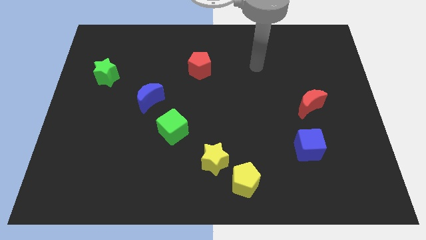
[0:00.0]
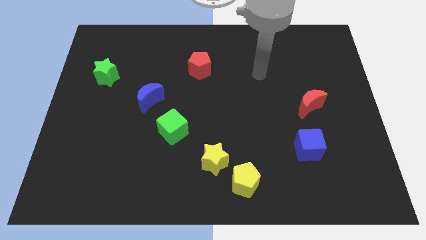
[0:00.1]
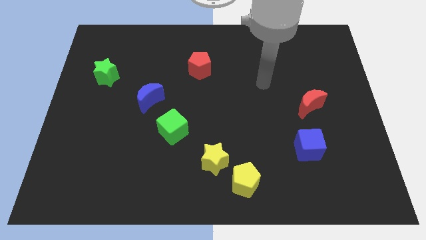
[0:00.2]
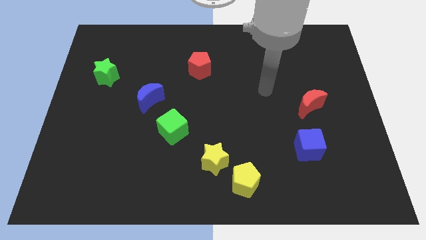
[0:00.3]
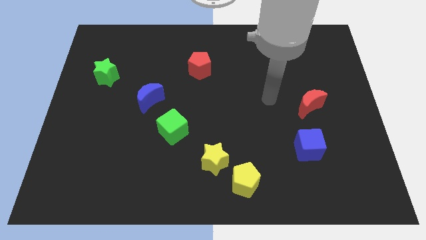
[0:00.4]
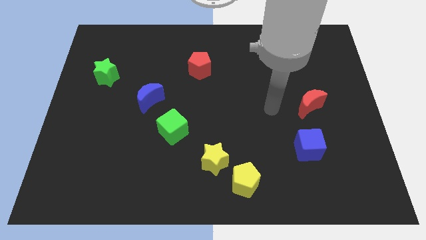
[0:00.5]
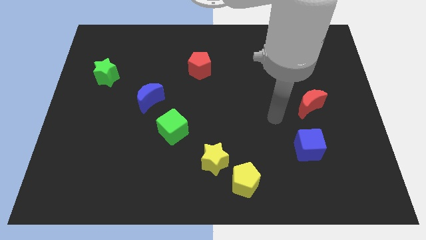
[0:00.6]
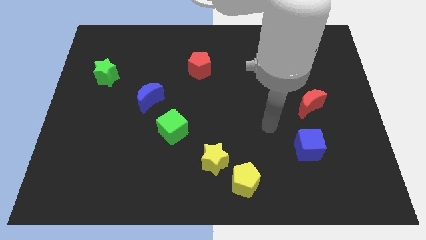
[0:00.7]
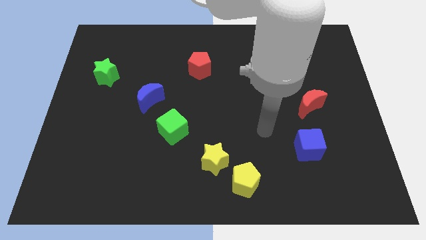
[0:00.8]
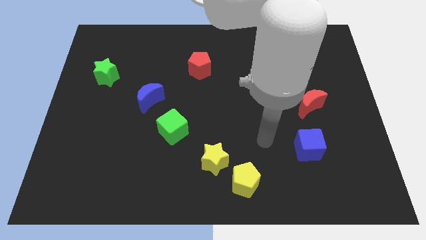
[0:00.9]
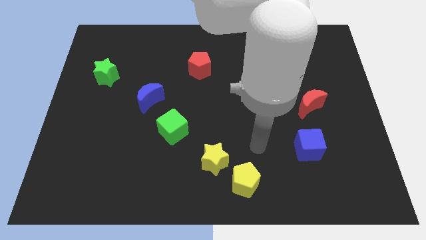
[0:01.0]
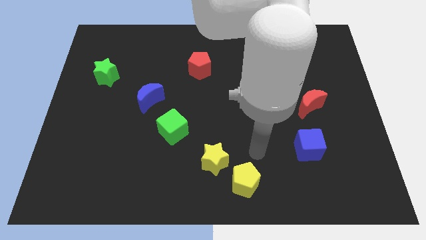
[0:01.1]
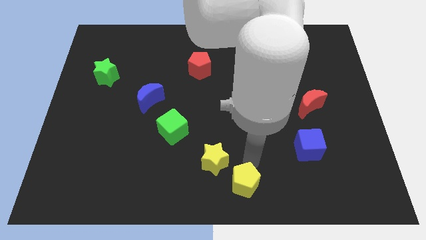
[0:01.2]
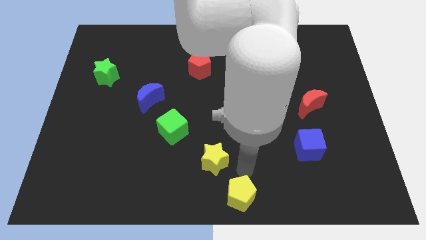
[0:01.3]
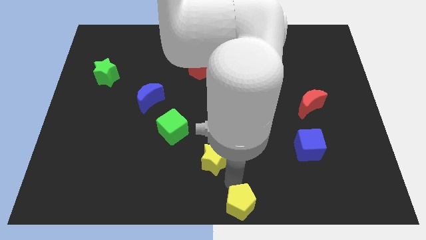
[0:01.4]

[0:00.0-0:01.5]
move the yellow star away from the yellow pentagon

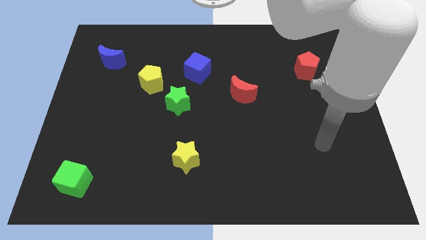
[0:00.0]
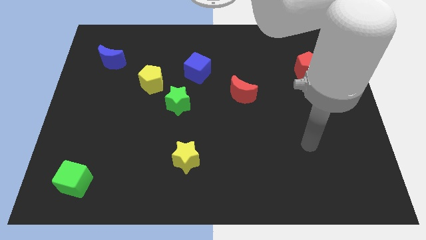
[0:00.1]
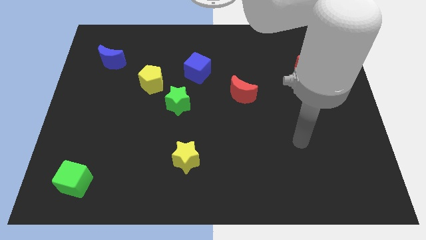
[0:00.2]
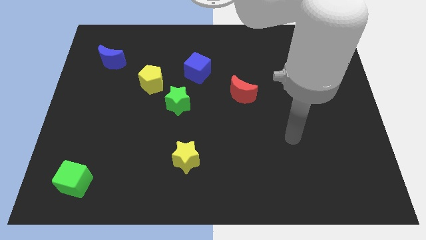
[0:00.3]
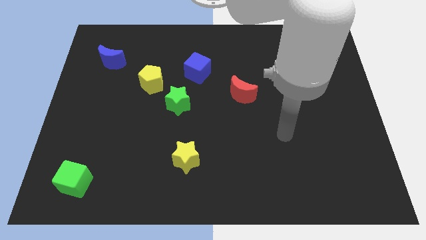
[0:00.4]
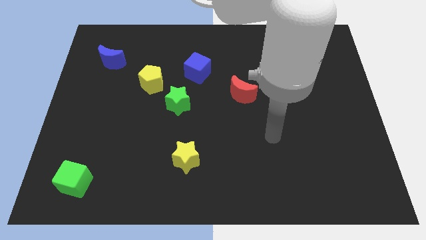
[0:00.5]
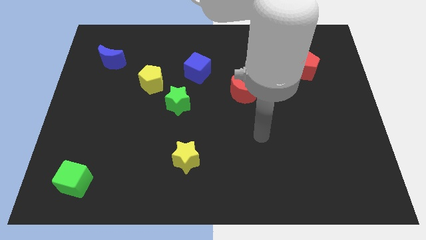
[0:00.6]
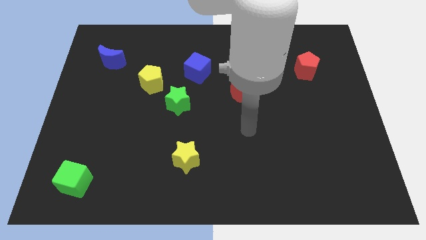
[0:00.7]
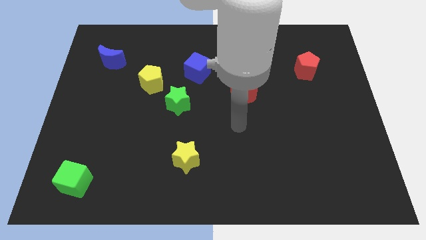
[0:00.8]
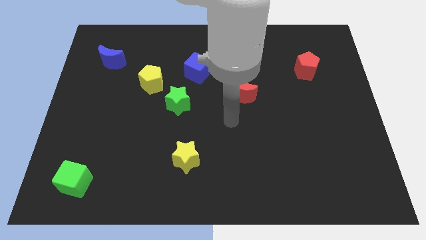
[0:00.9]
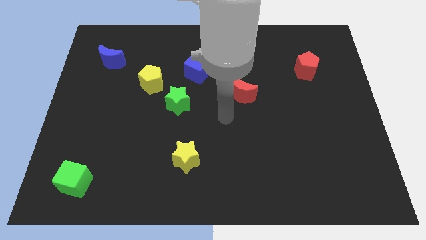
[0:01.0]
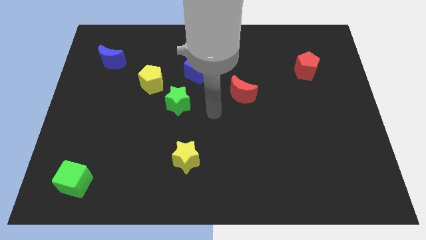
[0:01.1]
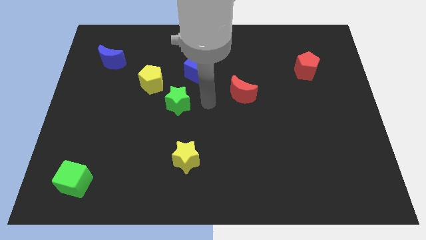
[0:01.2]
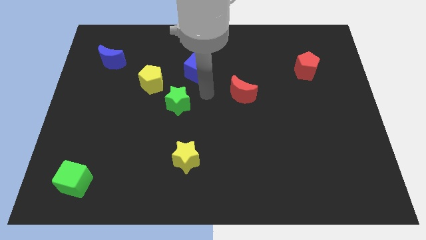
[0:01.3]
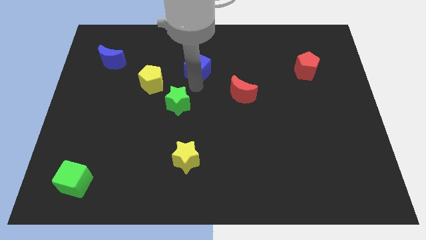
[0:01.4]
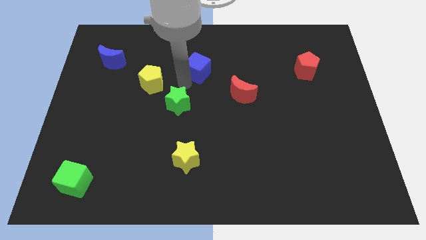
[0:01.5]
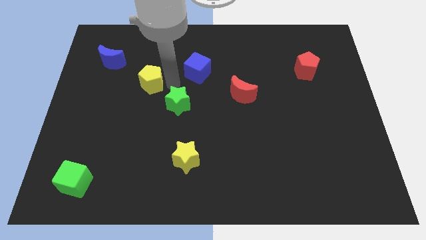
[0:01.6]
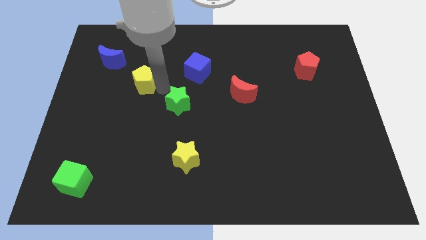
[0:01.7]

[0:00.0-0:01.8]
move the green star away from the yellow pentagon

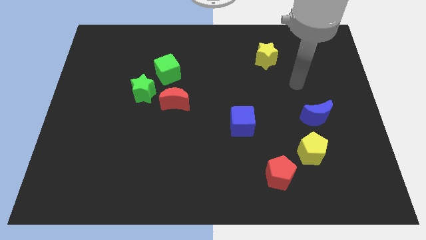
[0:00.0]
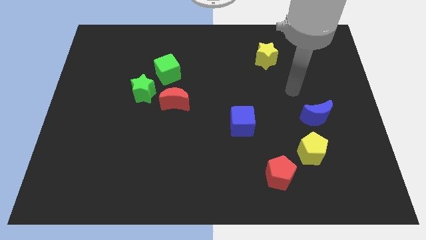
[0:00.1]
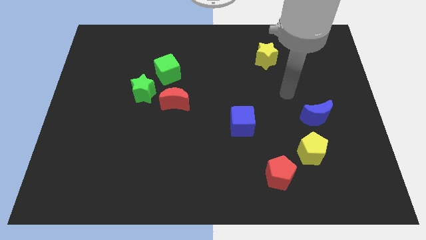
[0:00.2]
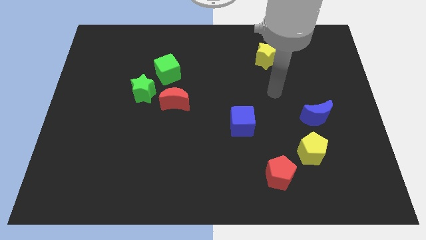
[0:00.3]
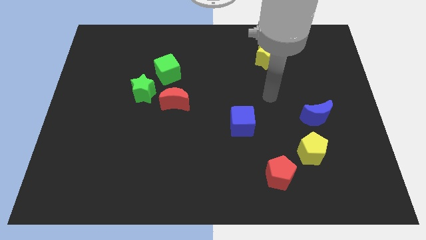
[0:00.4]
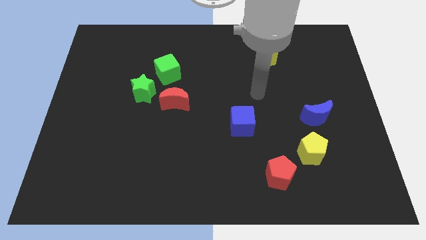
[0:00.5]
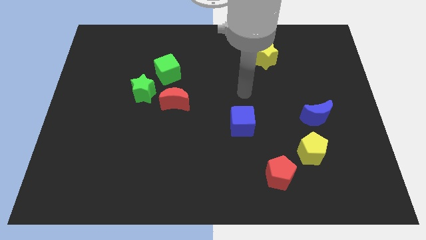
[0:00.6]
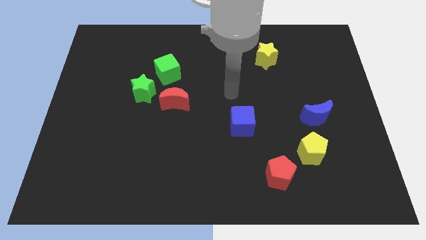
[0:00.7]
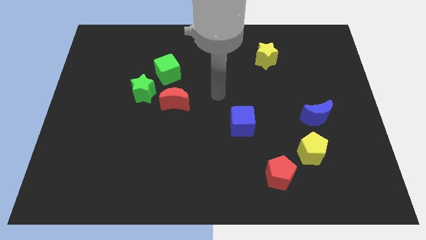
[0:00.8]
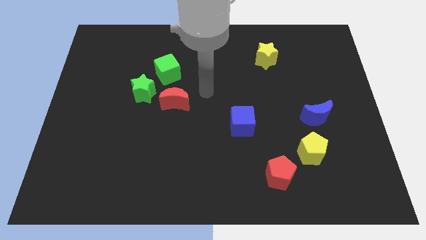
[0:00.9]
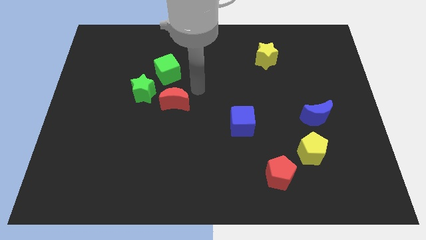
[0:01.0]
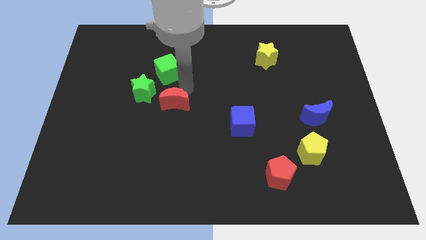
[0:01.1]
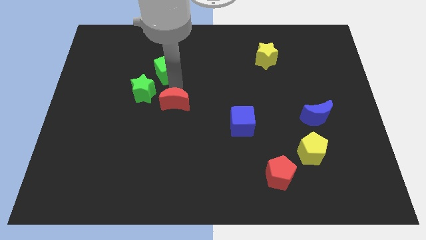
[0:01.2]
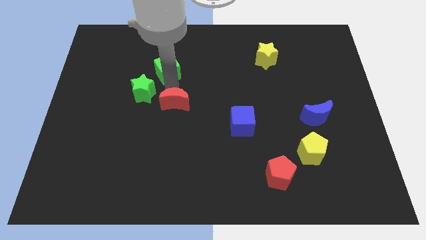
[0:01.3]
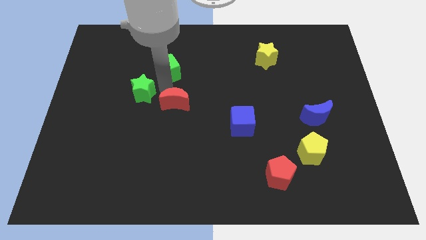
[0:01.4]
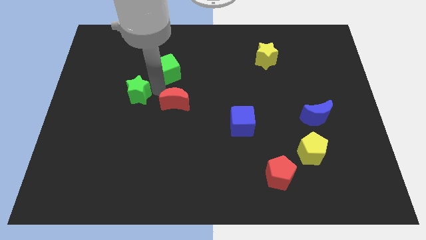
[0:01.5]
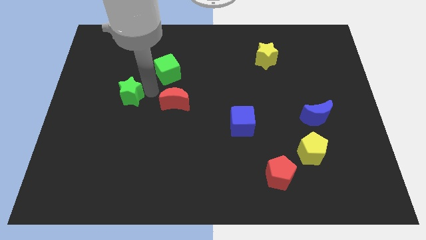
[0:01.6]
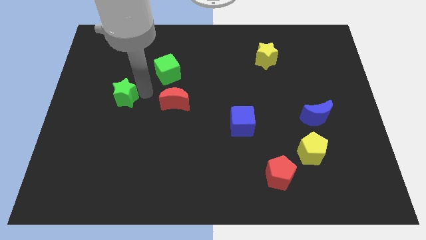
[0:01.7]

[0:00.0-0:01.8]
separate the green star from the red moon and green cube

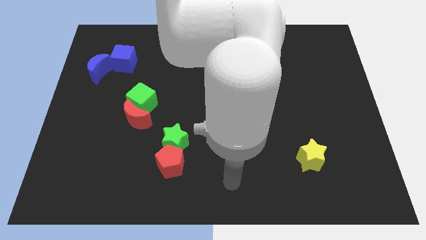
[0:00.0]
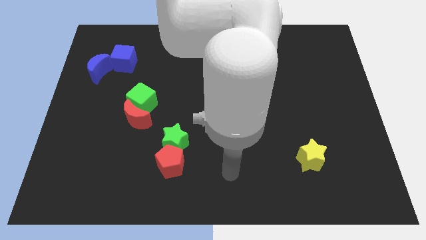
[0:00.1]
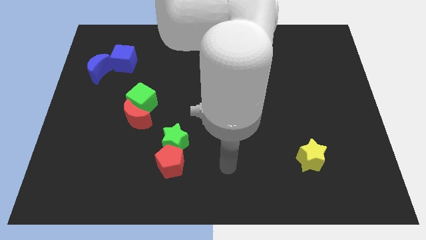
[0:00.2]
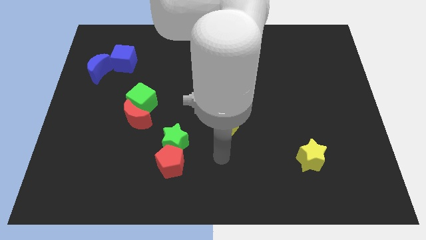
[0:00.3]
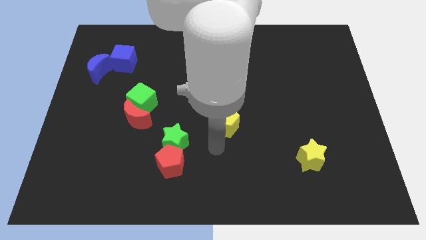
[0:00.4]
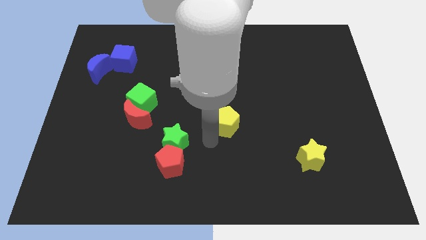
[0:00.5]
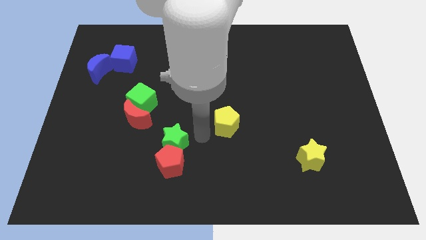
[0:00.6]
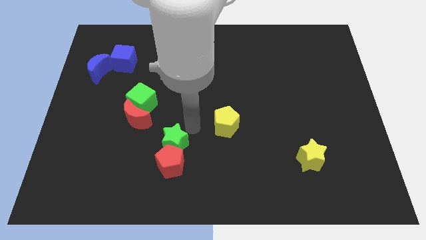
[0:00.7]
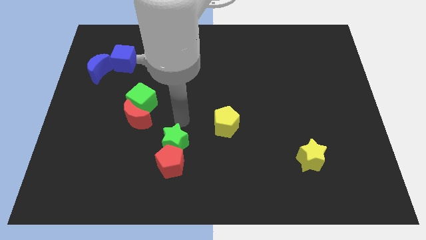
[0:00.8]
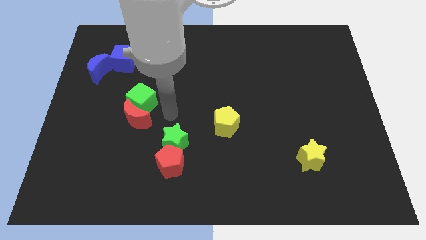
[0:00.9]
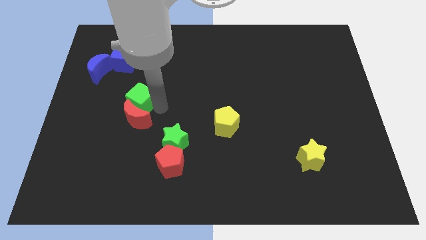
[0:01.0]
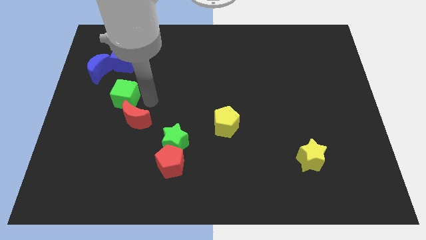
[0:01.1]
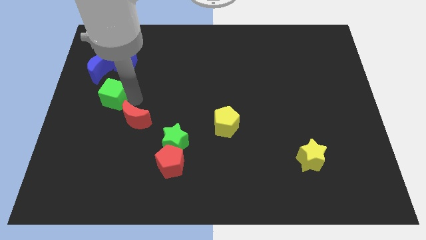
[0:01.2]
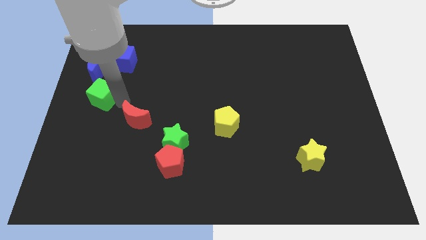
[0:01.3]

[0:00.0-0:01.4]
pull the red moon apart from the green cube

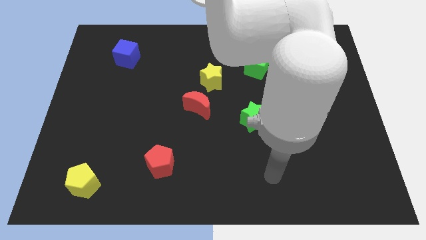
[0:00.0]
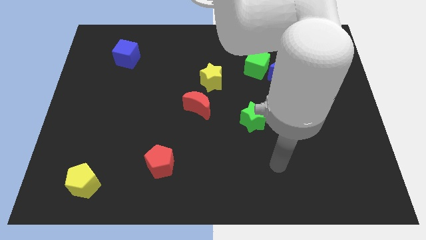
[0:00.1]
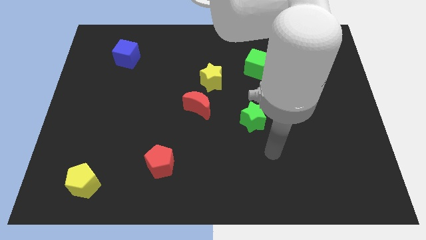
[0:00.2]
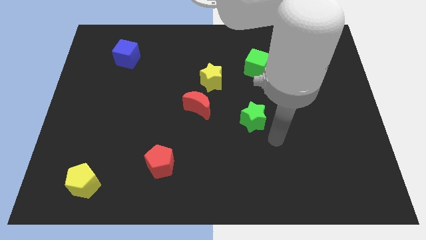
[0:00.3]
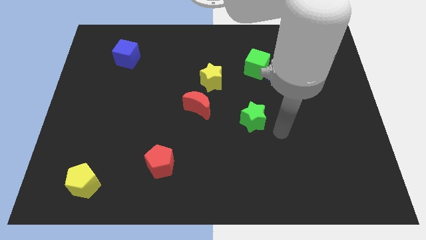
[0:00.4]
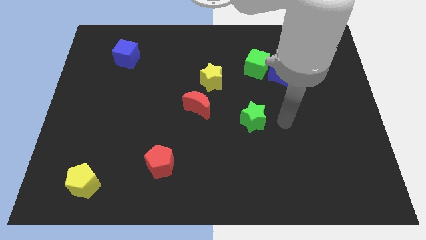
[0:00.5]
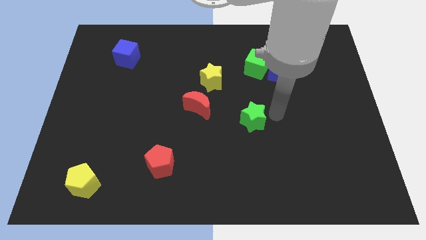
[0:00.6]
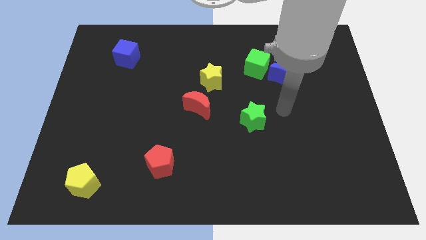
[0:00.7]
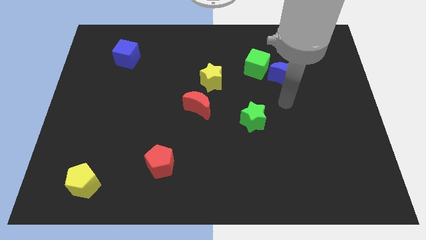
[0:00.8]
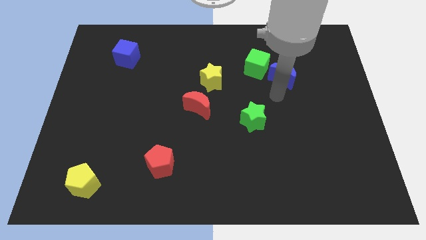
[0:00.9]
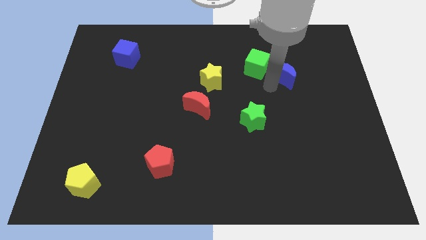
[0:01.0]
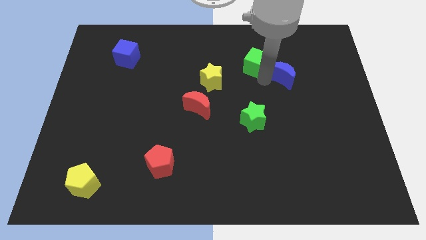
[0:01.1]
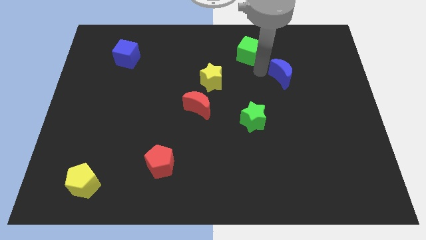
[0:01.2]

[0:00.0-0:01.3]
move the blue moon away from the green cube

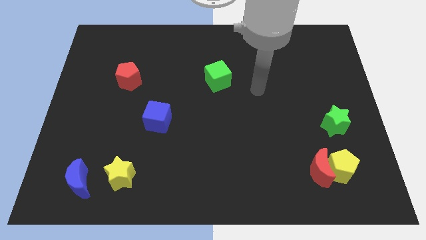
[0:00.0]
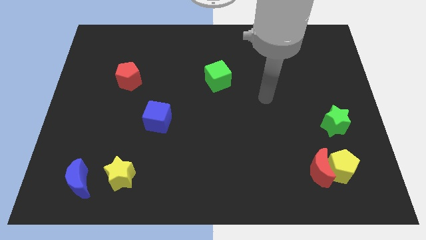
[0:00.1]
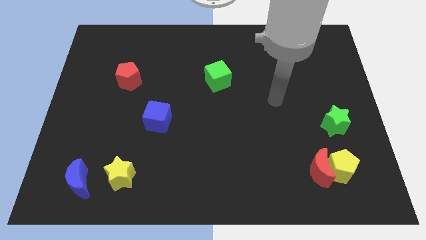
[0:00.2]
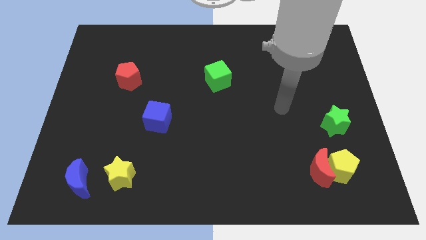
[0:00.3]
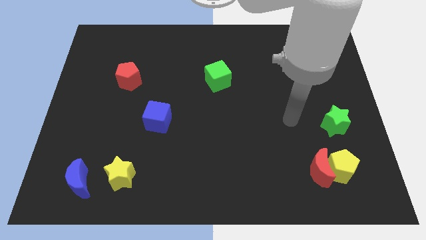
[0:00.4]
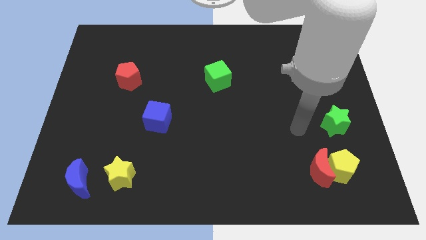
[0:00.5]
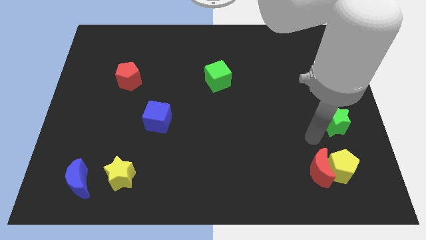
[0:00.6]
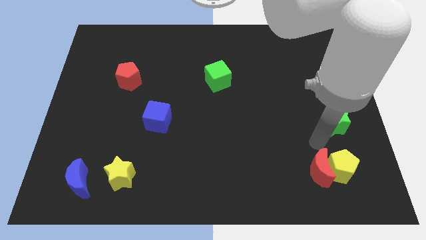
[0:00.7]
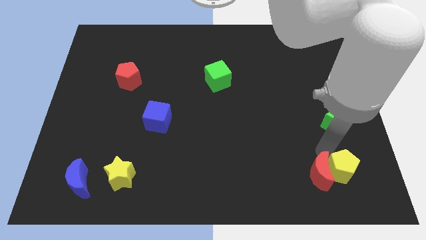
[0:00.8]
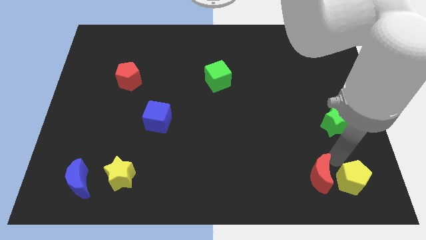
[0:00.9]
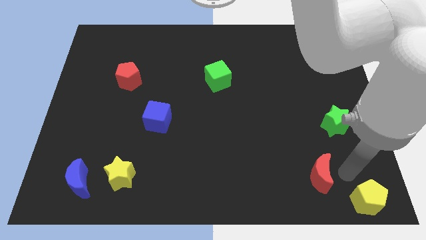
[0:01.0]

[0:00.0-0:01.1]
move the red moon away from the yellow pentagon

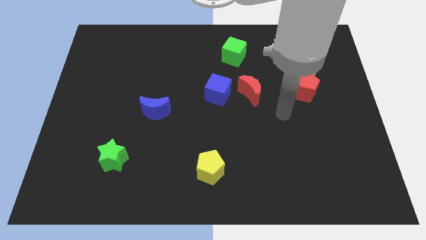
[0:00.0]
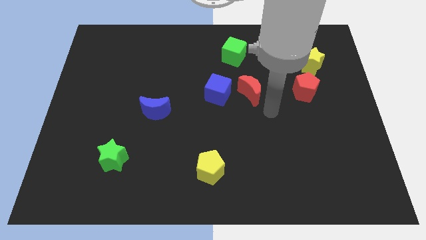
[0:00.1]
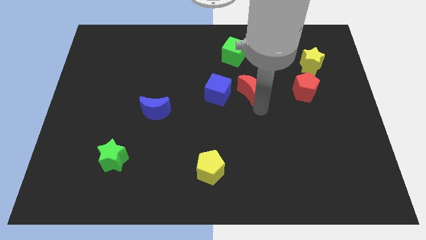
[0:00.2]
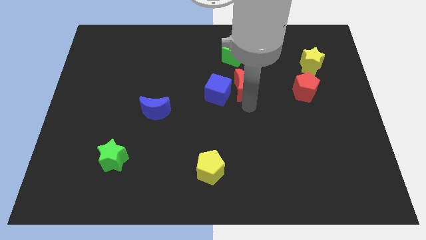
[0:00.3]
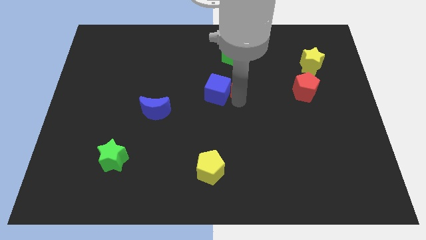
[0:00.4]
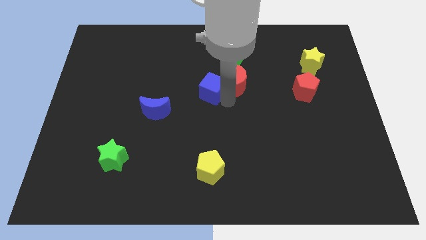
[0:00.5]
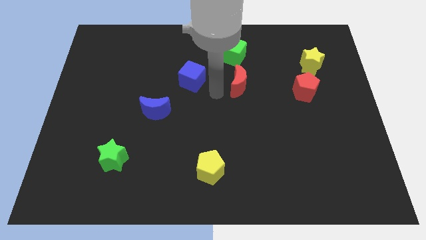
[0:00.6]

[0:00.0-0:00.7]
move the red moon away from the blue cube
